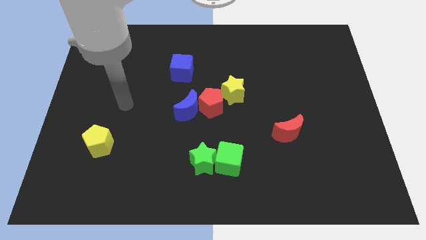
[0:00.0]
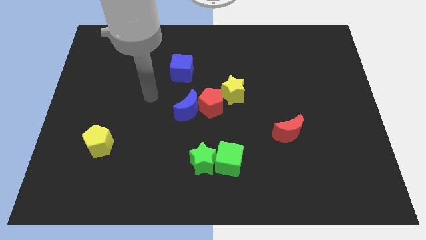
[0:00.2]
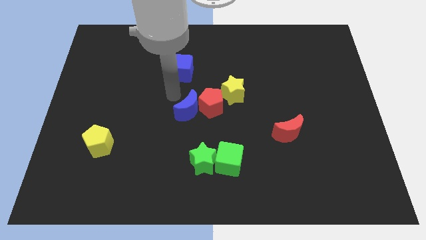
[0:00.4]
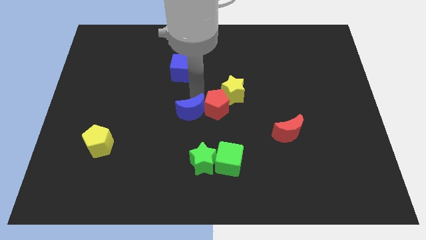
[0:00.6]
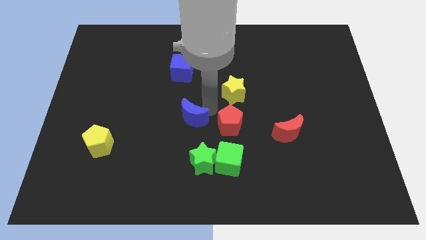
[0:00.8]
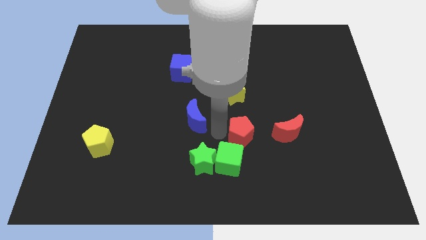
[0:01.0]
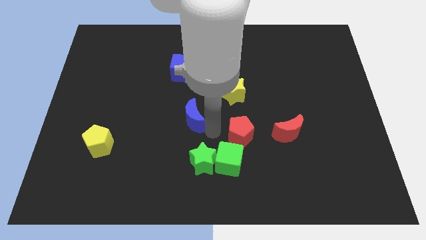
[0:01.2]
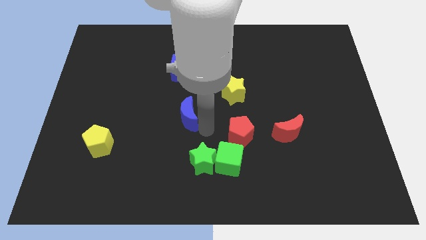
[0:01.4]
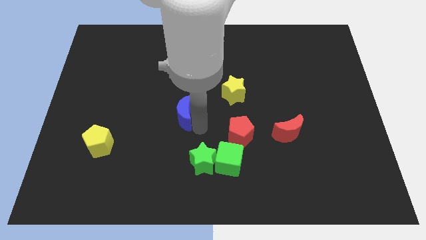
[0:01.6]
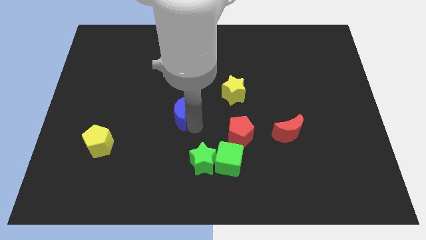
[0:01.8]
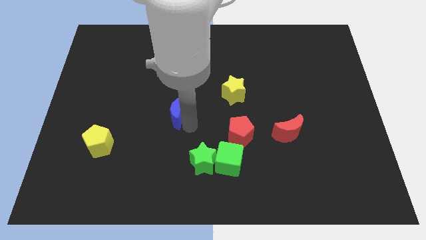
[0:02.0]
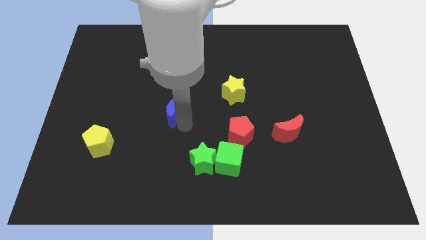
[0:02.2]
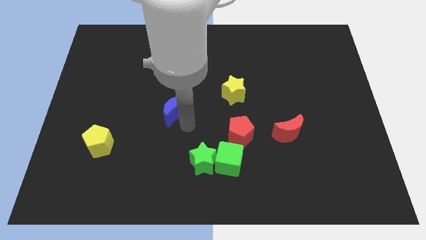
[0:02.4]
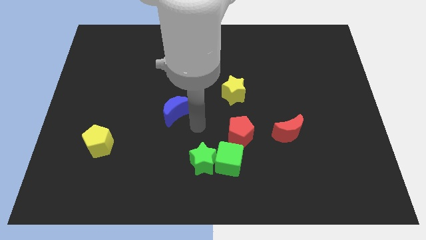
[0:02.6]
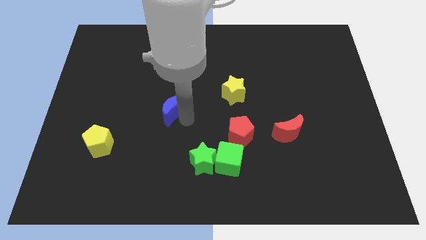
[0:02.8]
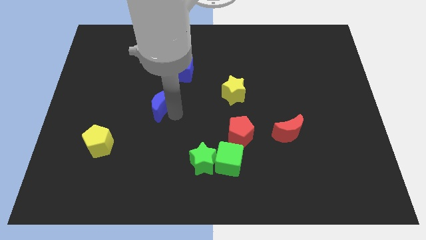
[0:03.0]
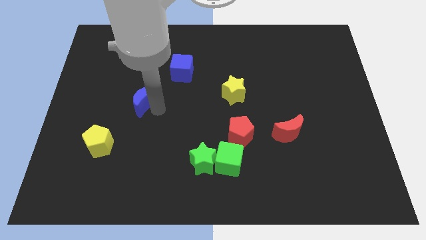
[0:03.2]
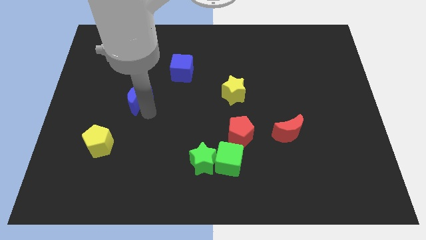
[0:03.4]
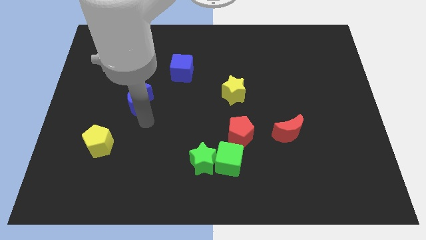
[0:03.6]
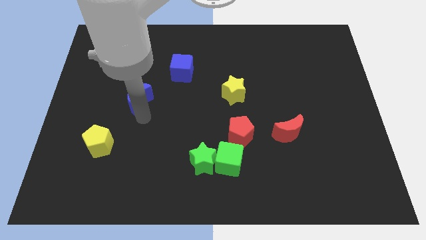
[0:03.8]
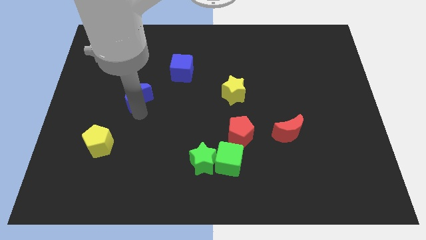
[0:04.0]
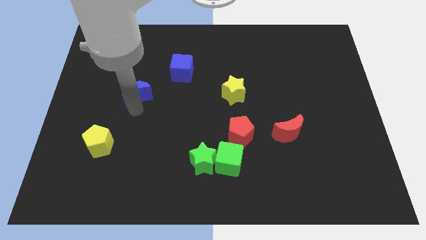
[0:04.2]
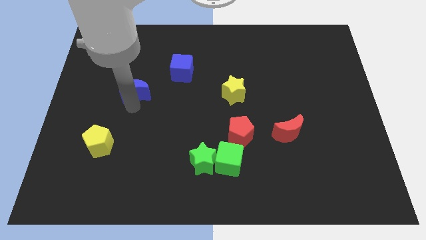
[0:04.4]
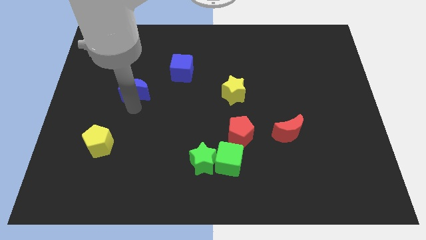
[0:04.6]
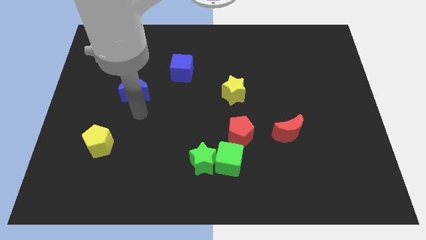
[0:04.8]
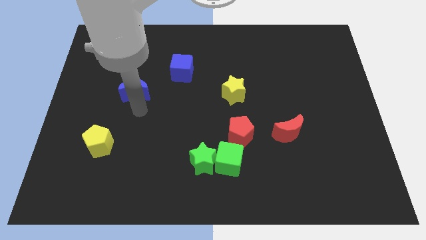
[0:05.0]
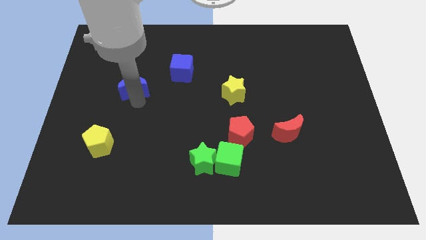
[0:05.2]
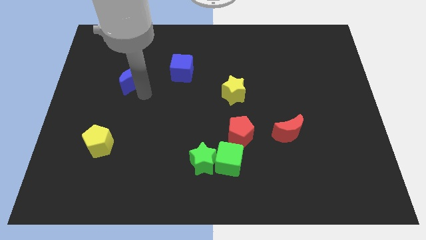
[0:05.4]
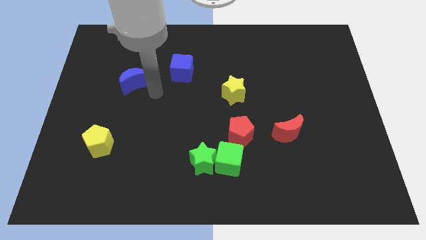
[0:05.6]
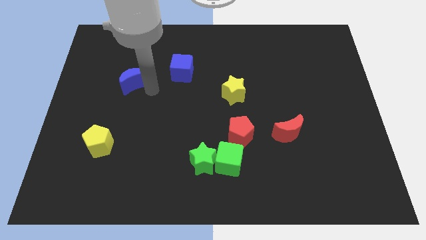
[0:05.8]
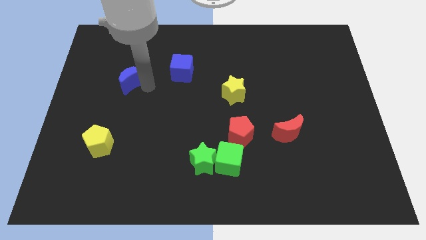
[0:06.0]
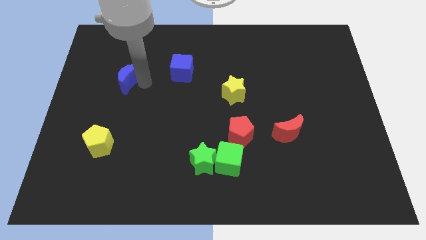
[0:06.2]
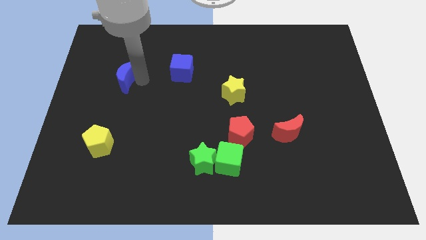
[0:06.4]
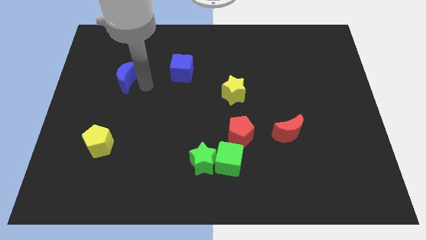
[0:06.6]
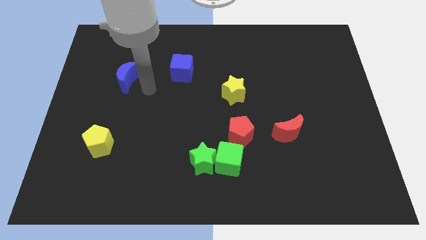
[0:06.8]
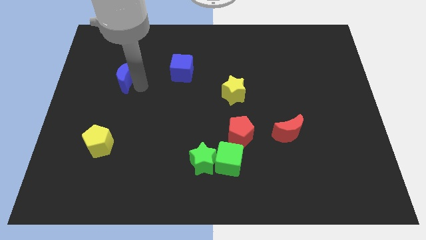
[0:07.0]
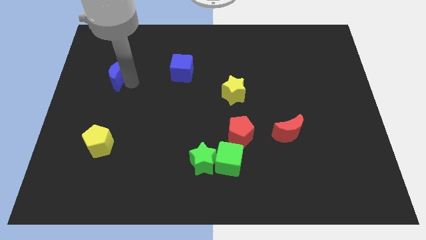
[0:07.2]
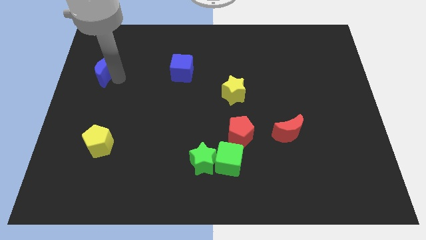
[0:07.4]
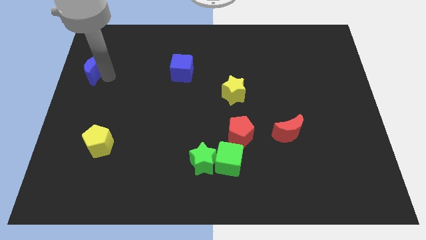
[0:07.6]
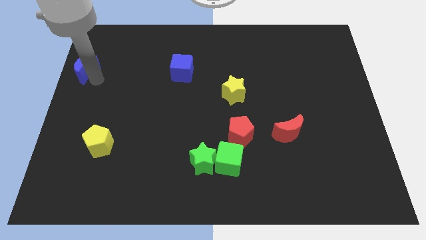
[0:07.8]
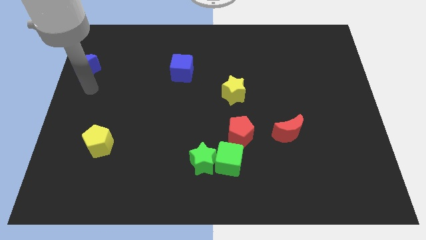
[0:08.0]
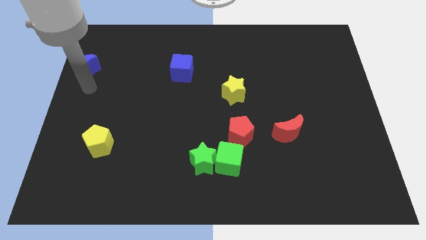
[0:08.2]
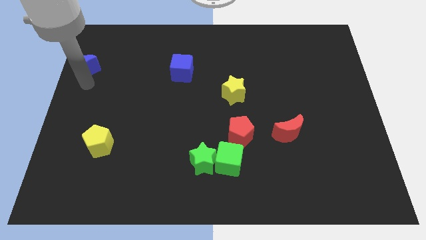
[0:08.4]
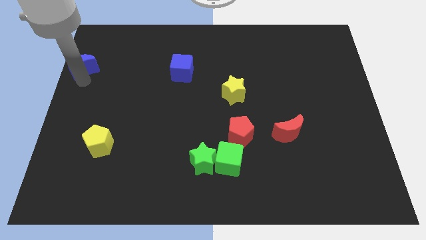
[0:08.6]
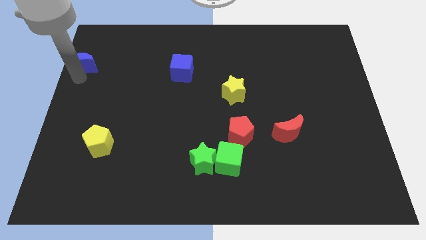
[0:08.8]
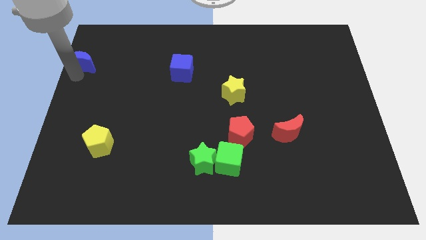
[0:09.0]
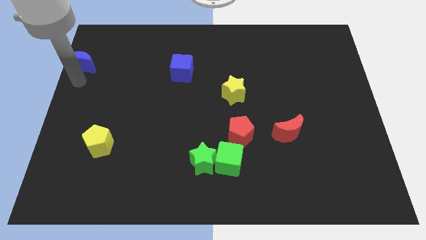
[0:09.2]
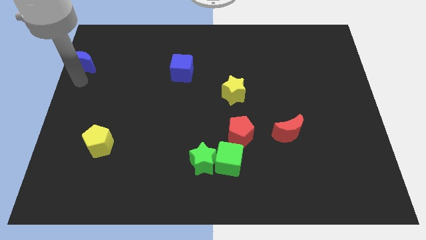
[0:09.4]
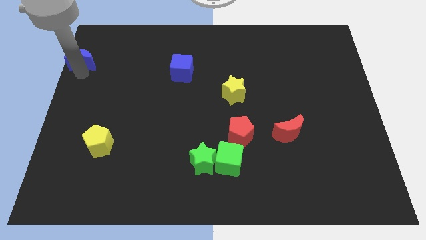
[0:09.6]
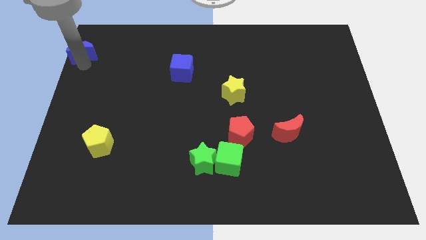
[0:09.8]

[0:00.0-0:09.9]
push the blue moon to the top left of the board

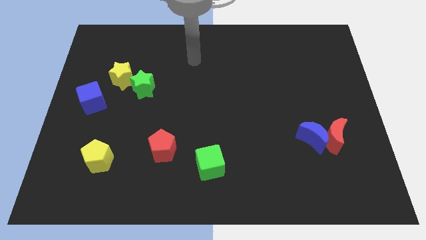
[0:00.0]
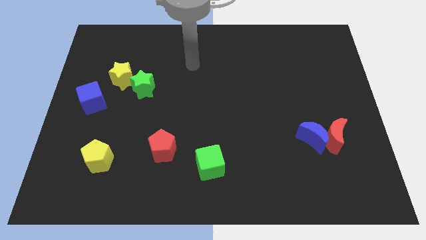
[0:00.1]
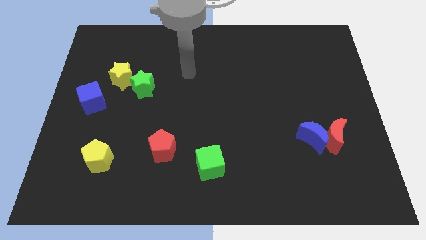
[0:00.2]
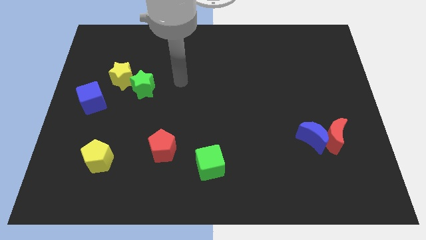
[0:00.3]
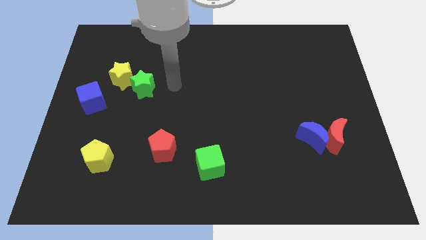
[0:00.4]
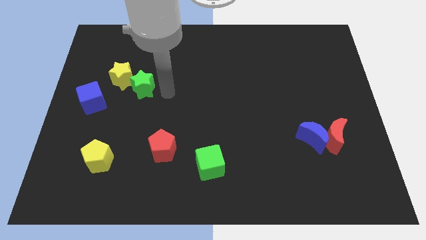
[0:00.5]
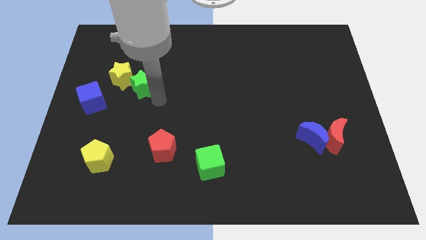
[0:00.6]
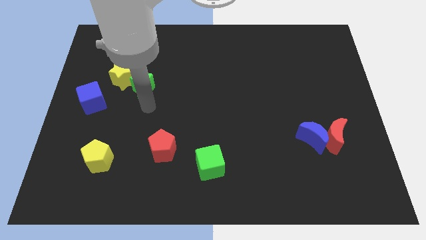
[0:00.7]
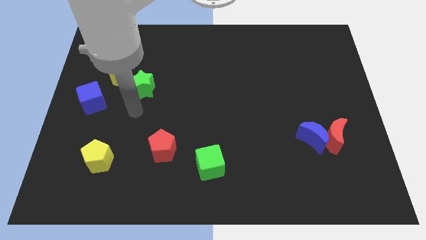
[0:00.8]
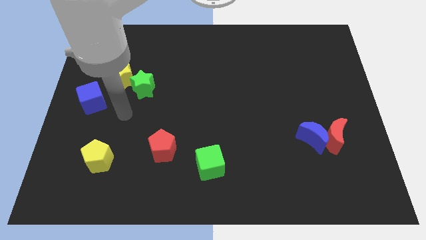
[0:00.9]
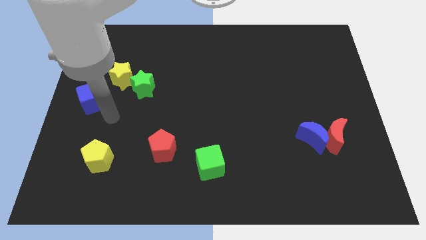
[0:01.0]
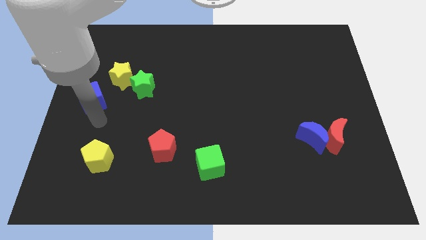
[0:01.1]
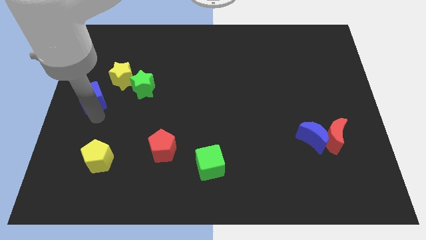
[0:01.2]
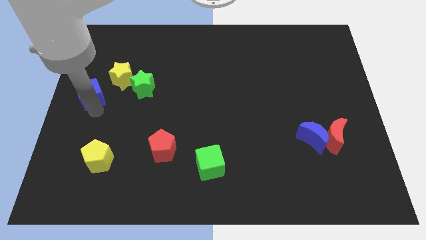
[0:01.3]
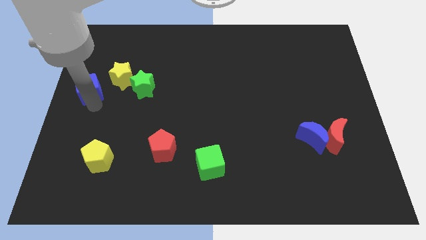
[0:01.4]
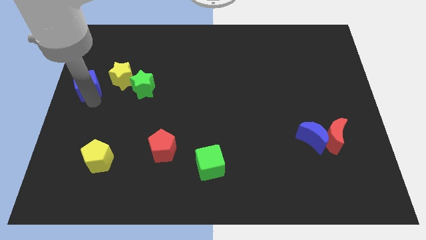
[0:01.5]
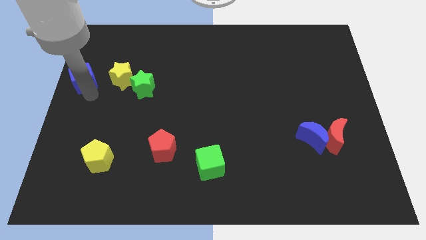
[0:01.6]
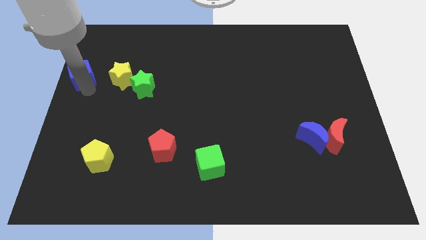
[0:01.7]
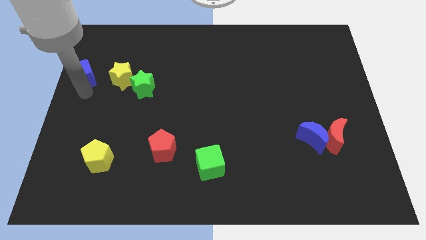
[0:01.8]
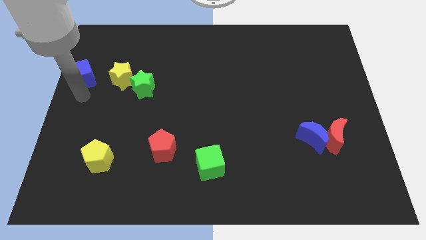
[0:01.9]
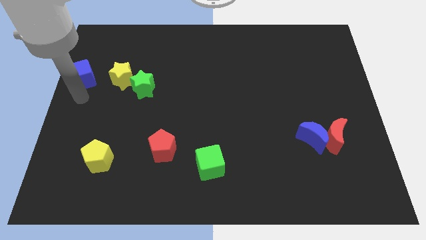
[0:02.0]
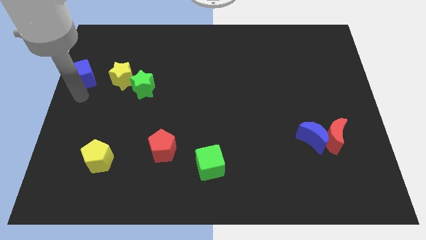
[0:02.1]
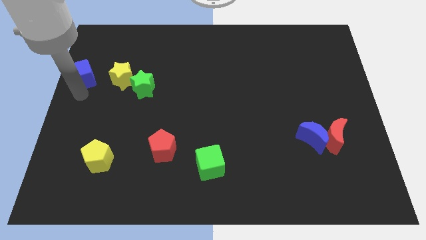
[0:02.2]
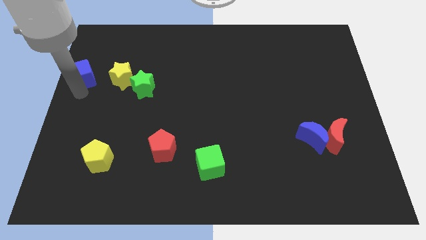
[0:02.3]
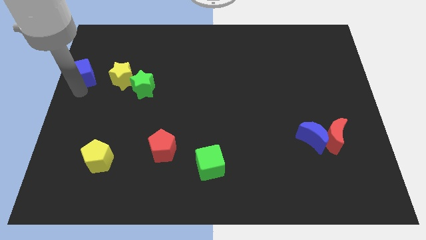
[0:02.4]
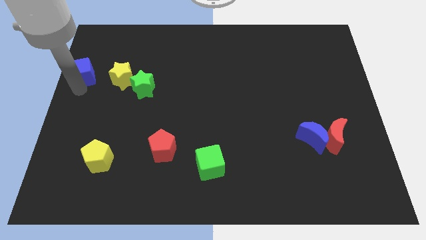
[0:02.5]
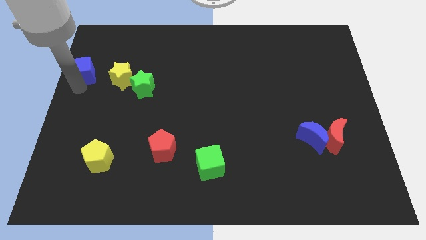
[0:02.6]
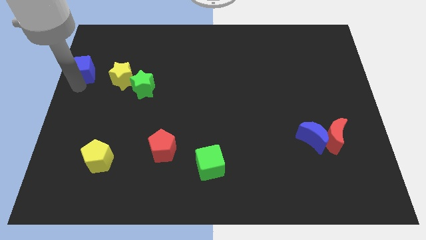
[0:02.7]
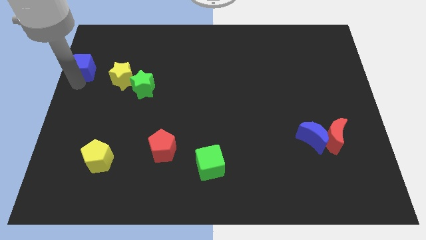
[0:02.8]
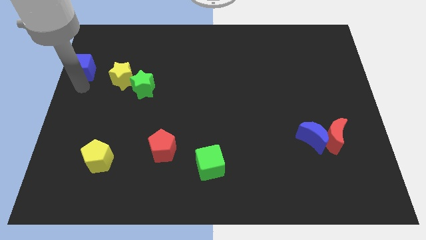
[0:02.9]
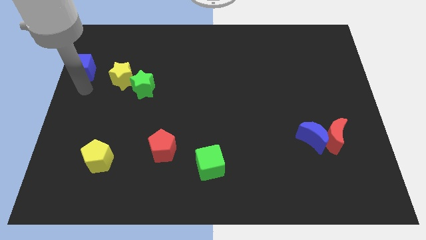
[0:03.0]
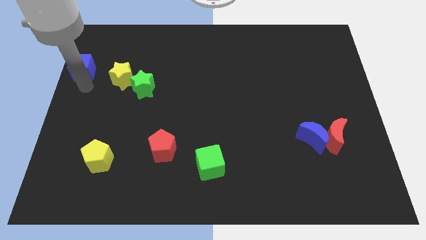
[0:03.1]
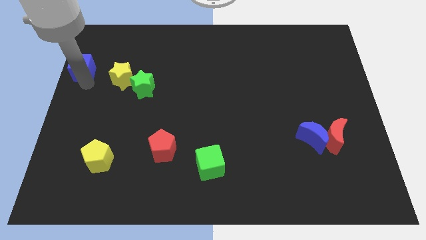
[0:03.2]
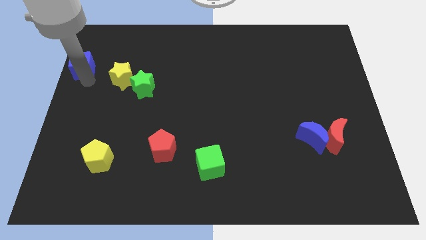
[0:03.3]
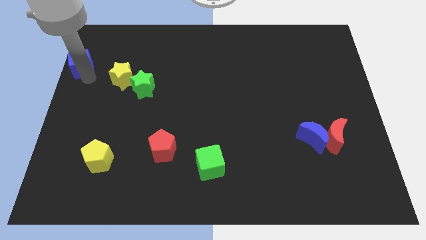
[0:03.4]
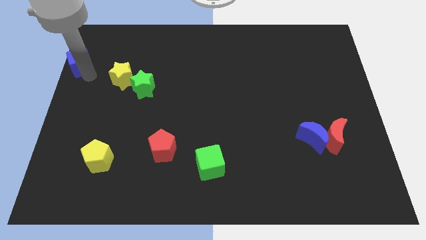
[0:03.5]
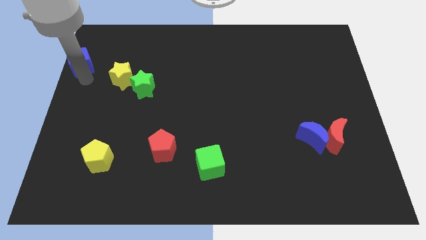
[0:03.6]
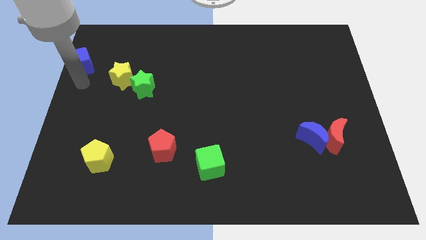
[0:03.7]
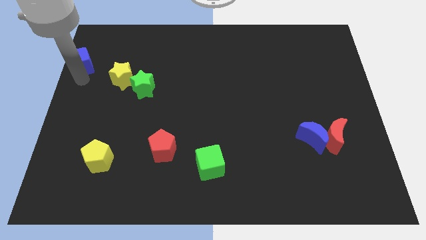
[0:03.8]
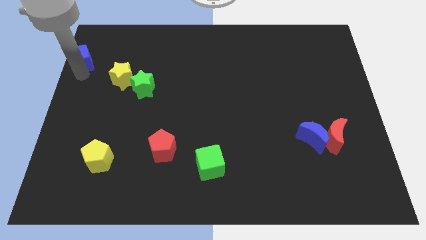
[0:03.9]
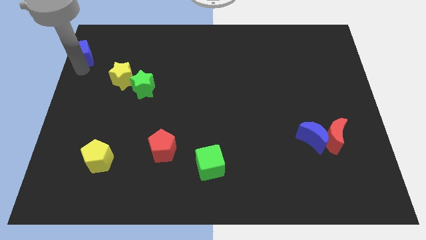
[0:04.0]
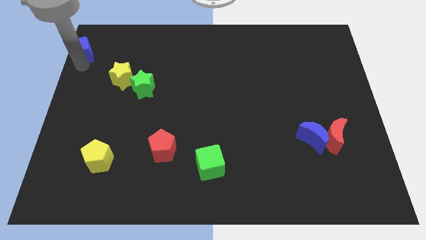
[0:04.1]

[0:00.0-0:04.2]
push the blue cube to the top left corner
